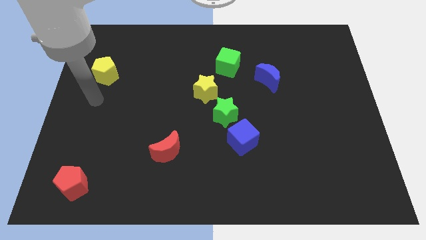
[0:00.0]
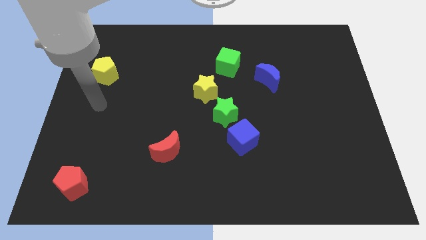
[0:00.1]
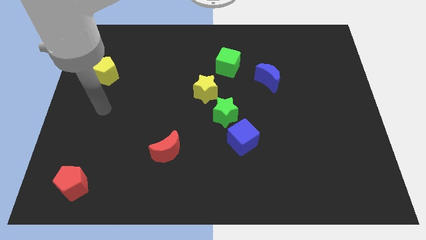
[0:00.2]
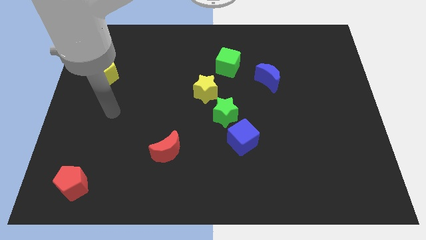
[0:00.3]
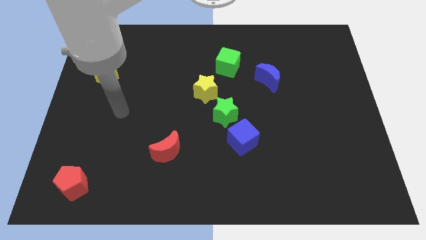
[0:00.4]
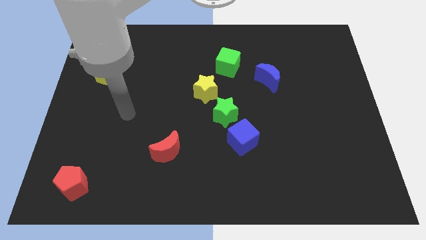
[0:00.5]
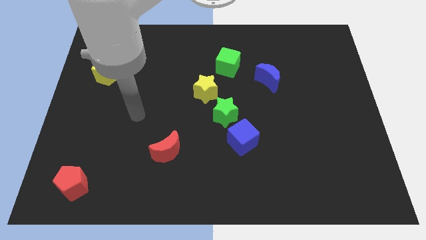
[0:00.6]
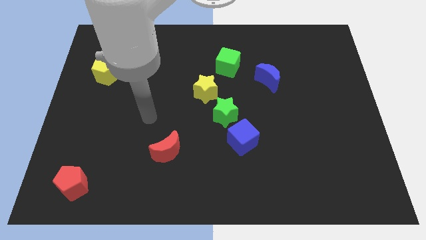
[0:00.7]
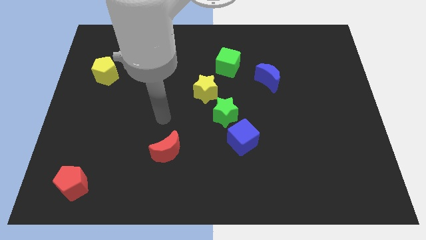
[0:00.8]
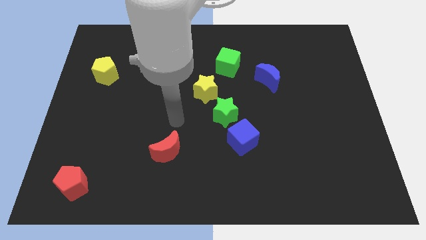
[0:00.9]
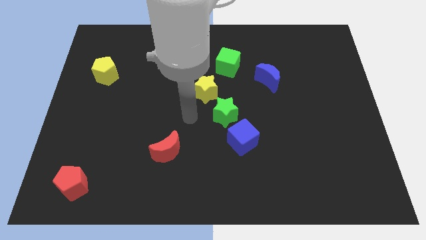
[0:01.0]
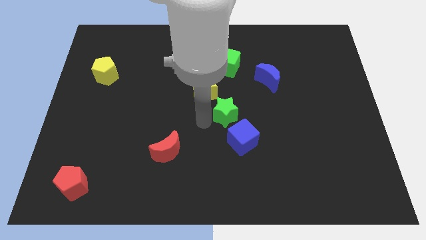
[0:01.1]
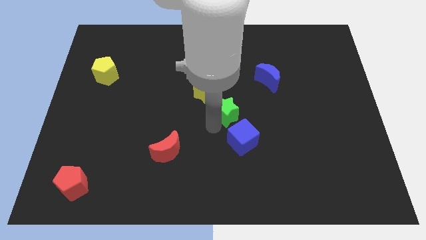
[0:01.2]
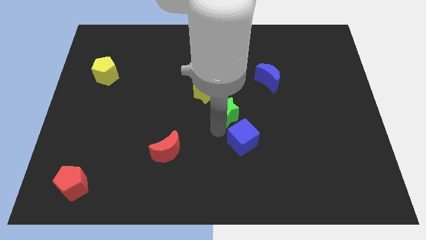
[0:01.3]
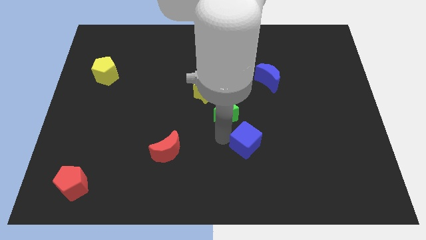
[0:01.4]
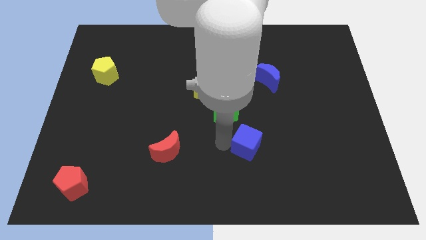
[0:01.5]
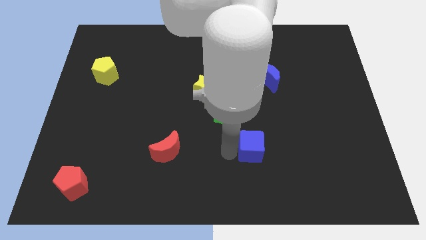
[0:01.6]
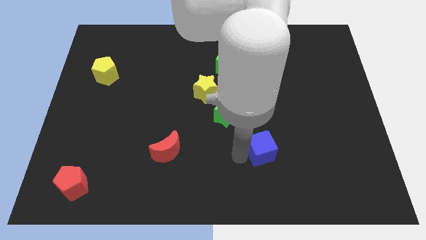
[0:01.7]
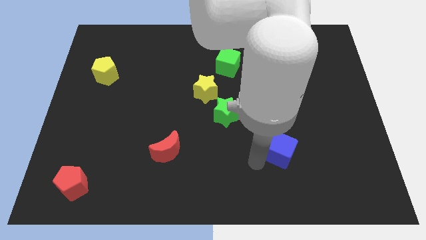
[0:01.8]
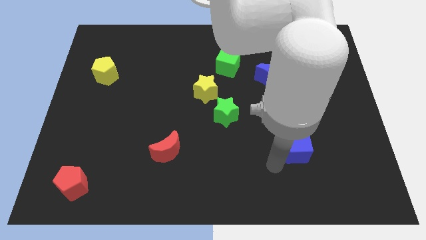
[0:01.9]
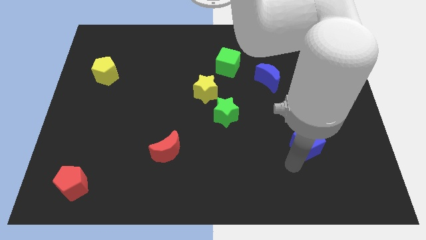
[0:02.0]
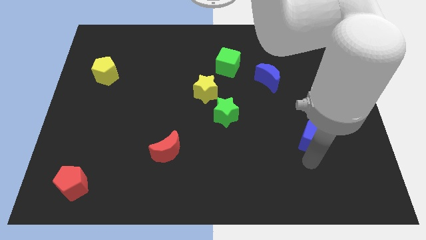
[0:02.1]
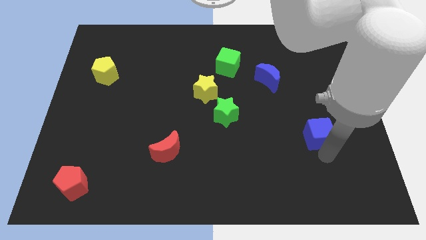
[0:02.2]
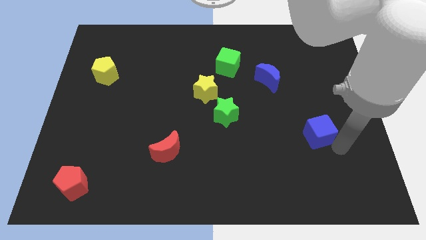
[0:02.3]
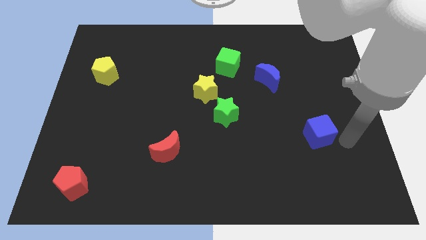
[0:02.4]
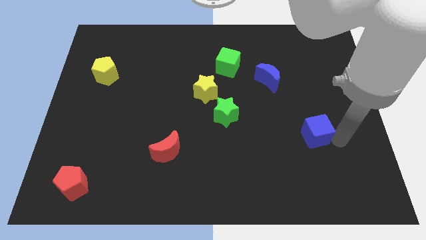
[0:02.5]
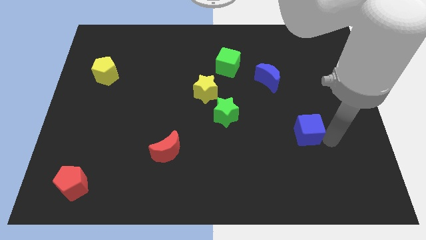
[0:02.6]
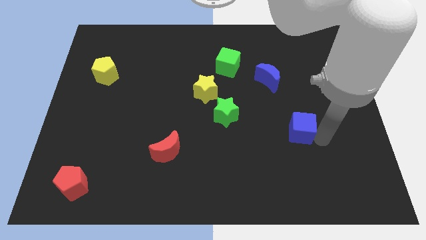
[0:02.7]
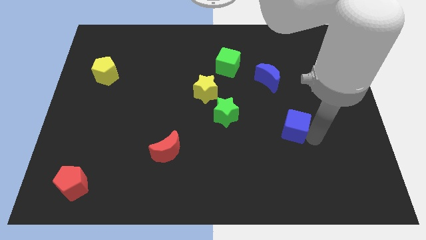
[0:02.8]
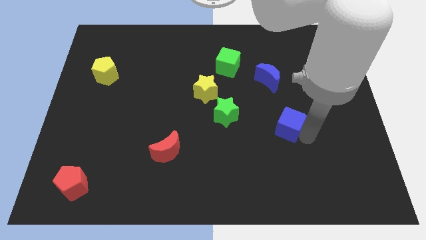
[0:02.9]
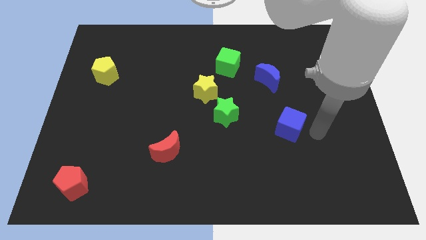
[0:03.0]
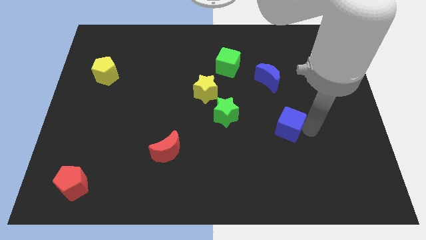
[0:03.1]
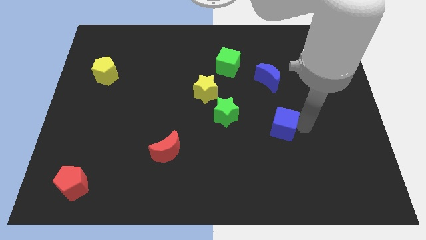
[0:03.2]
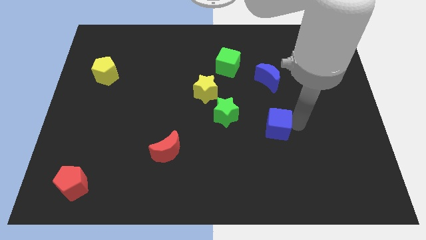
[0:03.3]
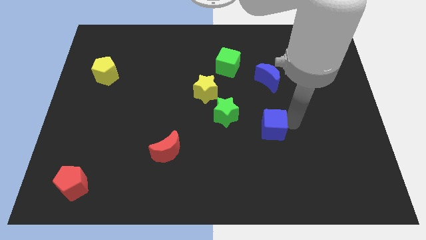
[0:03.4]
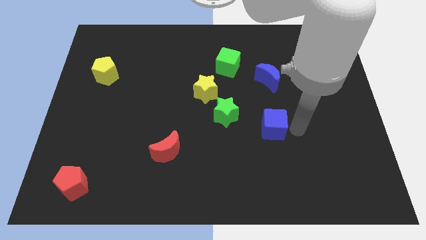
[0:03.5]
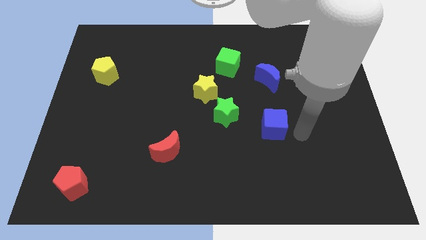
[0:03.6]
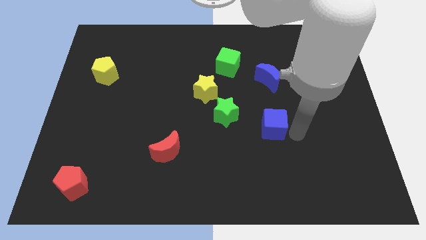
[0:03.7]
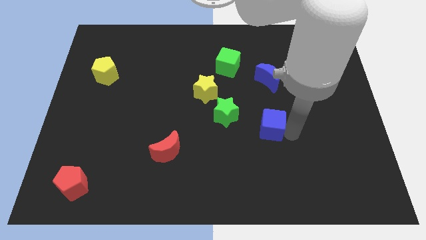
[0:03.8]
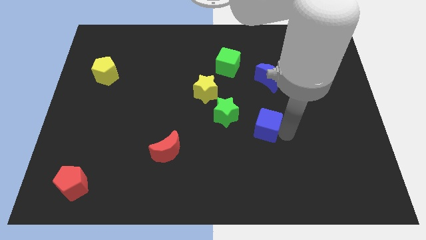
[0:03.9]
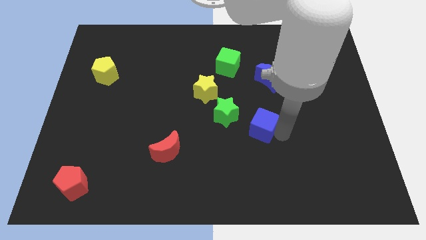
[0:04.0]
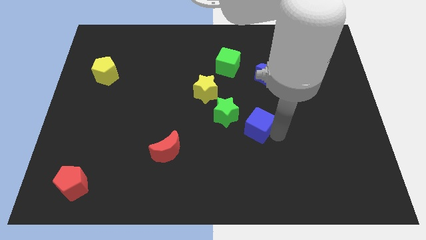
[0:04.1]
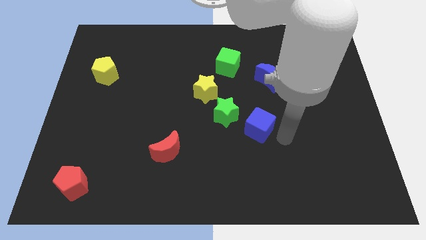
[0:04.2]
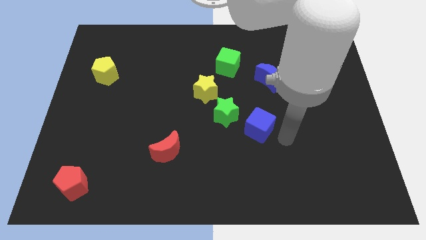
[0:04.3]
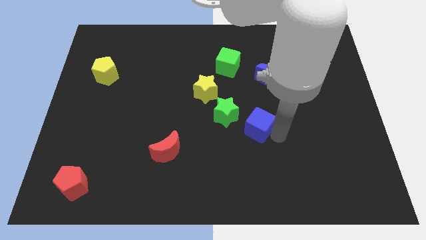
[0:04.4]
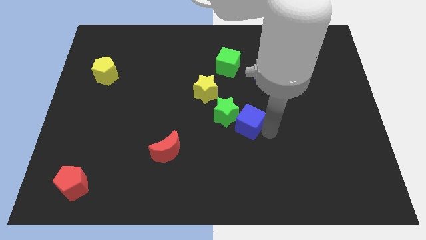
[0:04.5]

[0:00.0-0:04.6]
move the blue cube close to the green star

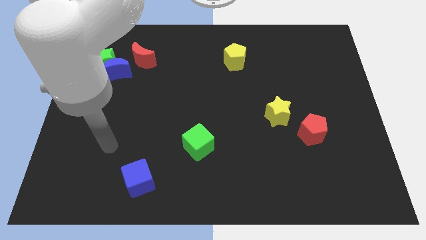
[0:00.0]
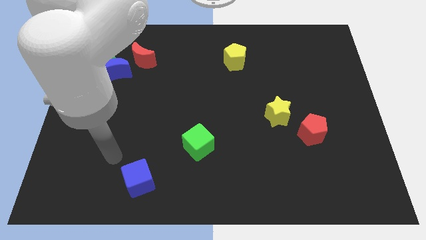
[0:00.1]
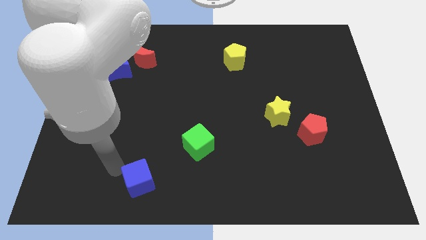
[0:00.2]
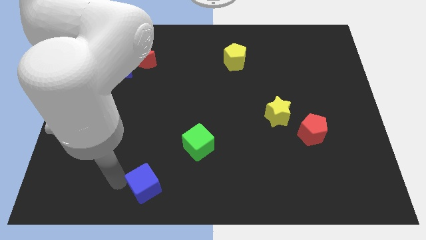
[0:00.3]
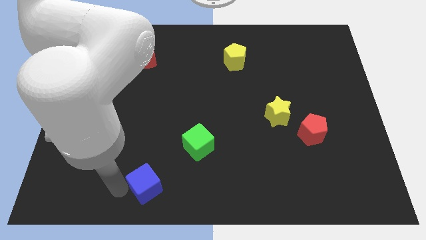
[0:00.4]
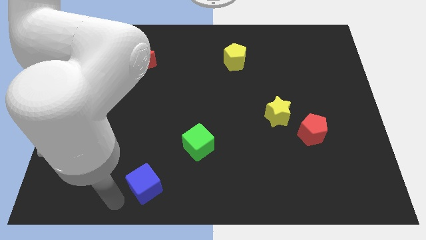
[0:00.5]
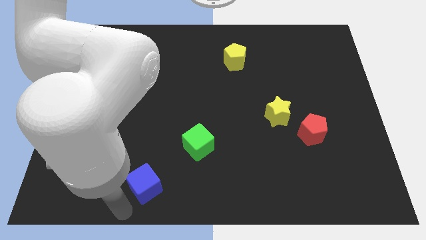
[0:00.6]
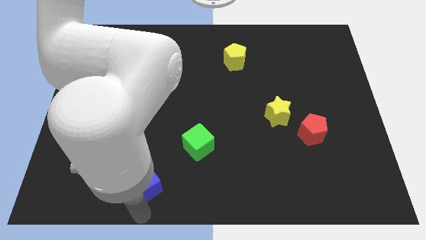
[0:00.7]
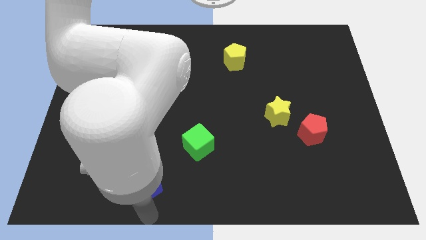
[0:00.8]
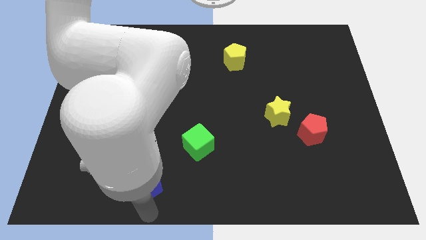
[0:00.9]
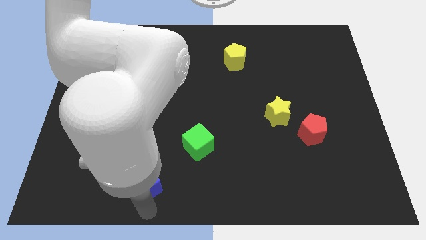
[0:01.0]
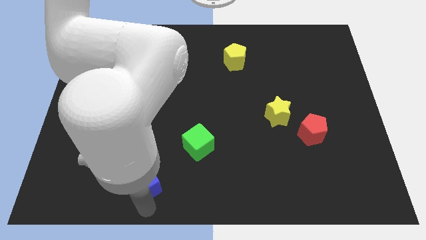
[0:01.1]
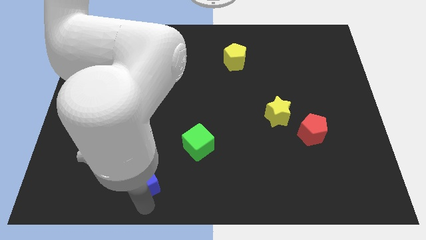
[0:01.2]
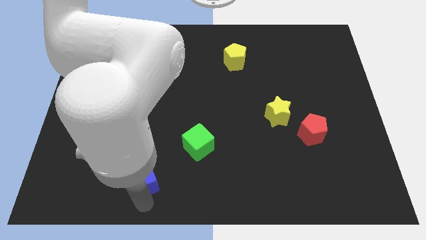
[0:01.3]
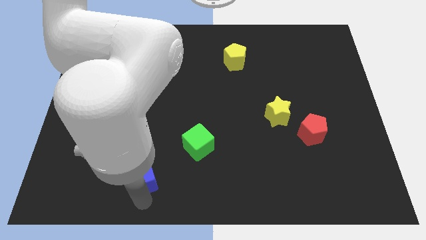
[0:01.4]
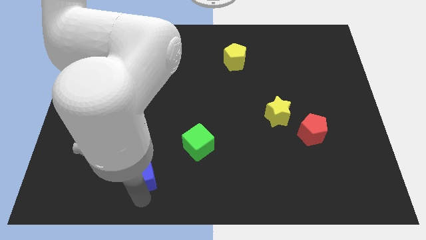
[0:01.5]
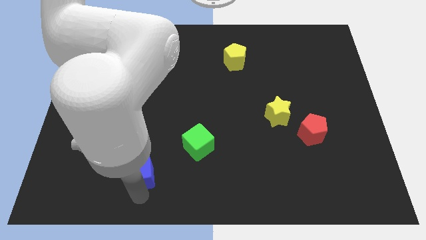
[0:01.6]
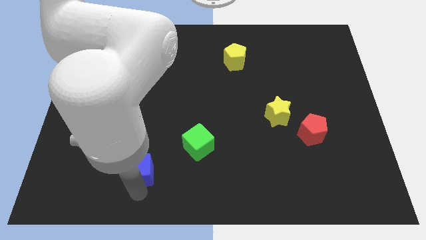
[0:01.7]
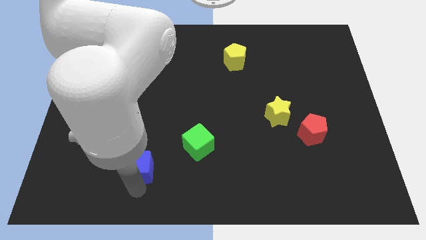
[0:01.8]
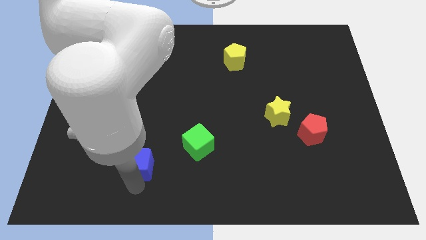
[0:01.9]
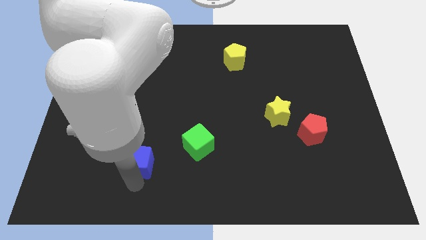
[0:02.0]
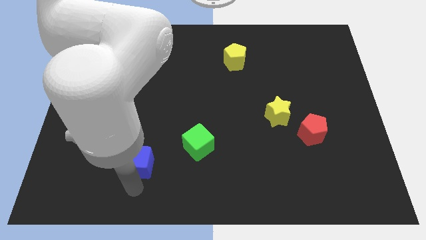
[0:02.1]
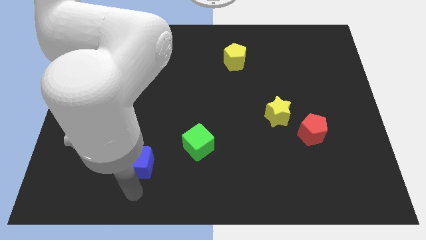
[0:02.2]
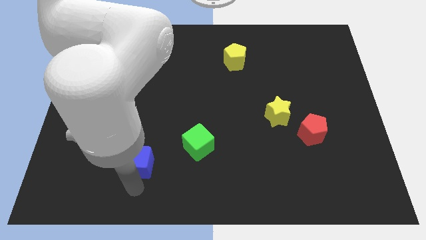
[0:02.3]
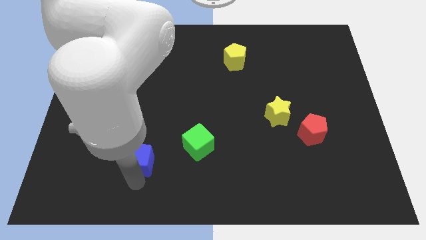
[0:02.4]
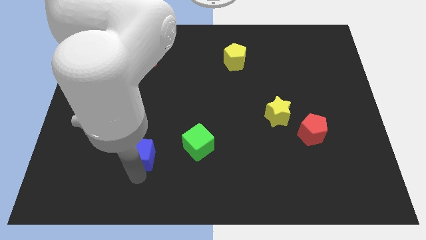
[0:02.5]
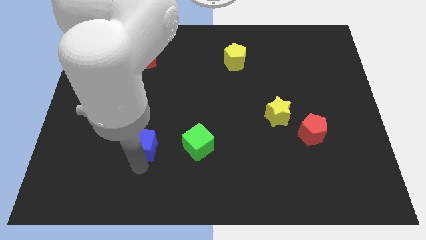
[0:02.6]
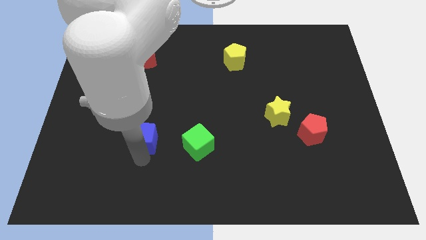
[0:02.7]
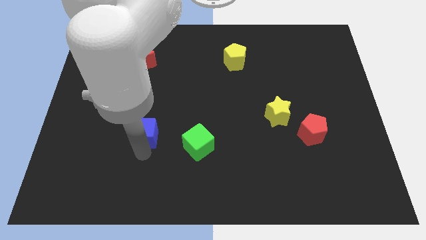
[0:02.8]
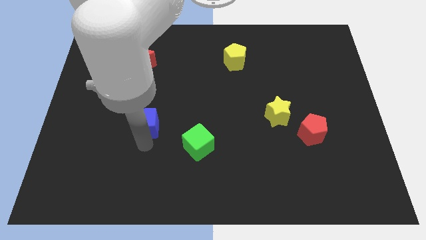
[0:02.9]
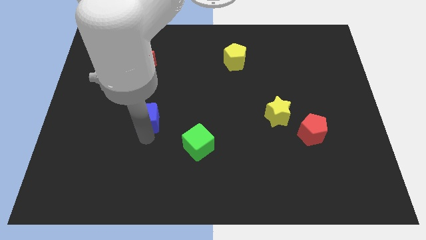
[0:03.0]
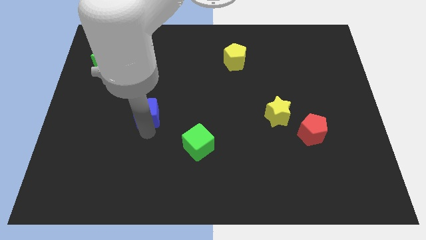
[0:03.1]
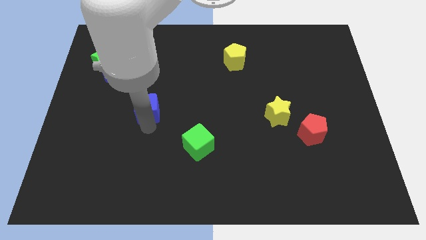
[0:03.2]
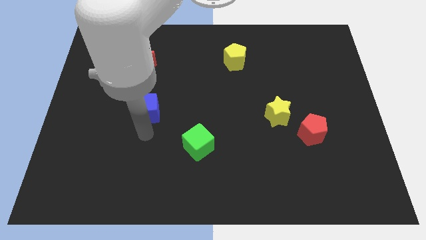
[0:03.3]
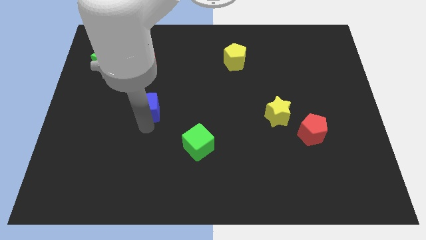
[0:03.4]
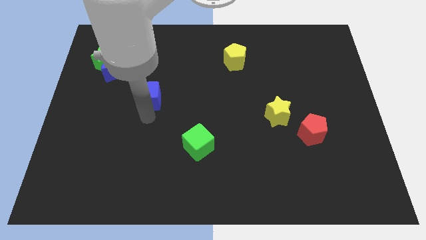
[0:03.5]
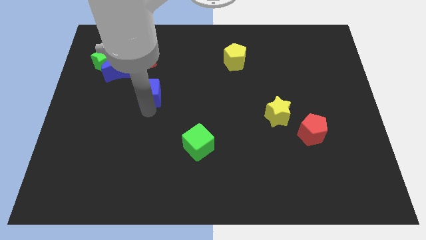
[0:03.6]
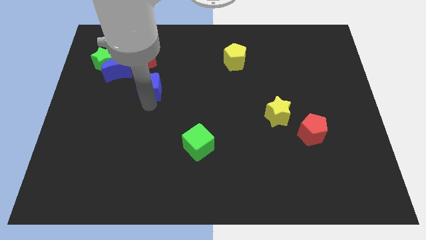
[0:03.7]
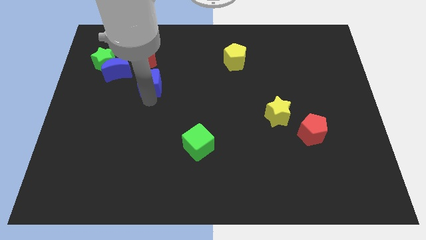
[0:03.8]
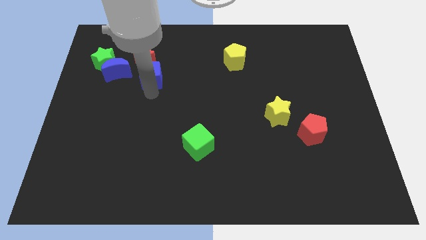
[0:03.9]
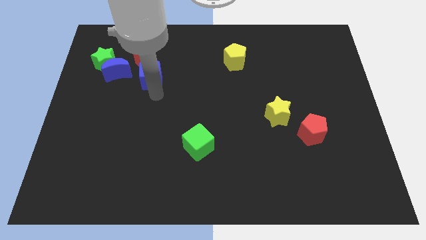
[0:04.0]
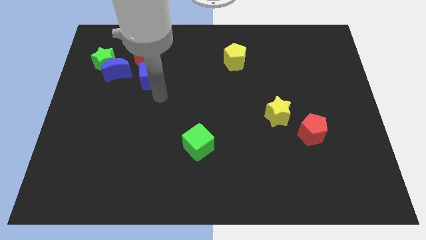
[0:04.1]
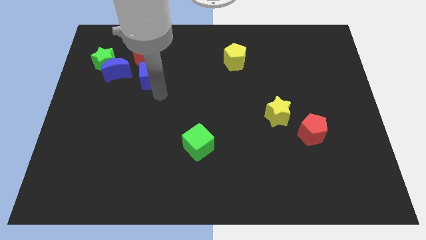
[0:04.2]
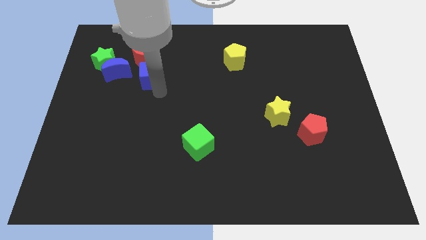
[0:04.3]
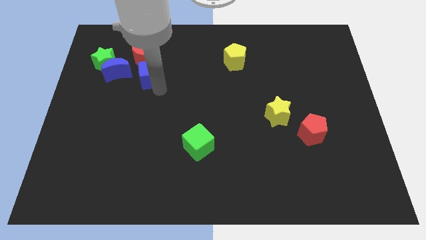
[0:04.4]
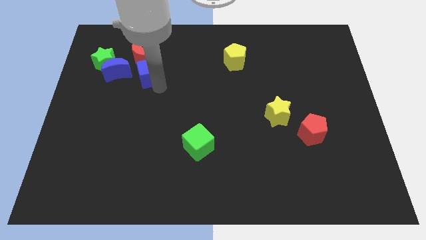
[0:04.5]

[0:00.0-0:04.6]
push the blue cube to the red moon
